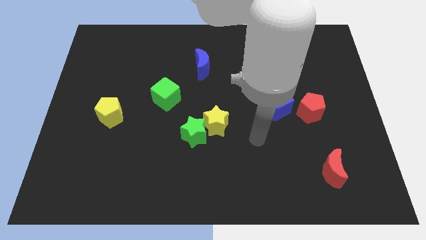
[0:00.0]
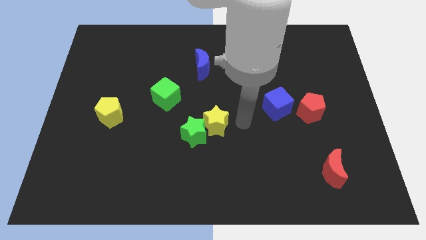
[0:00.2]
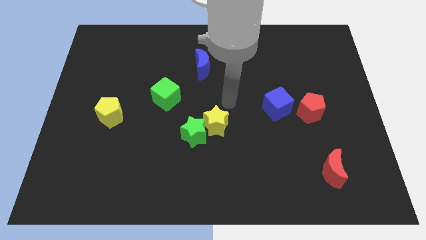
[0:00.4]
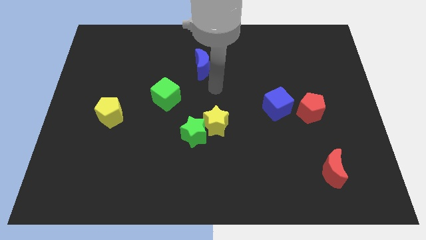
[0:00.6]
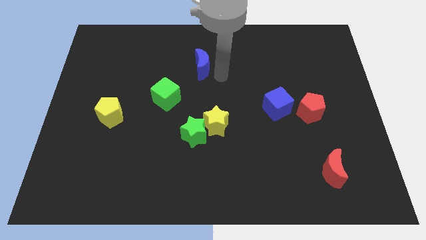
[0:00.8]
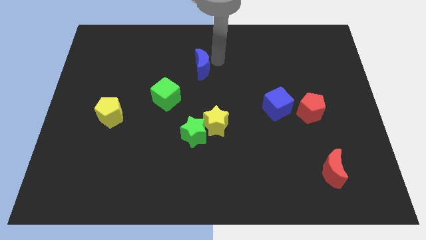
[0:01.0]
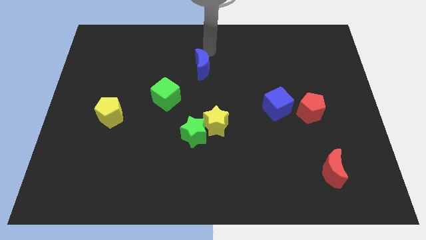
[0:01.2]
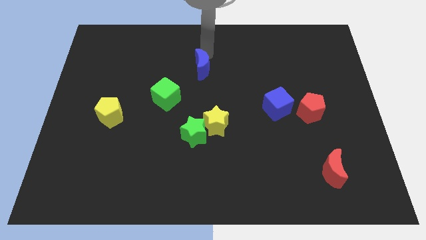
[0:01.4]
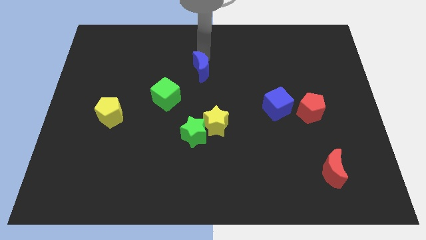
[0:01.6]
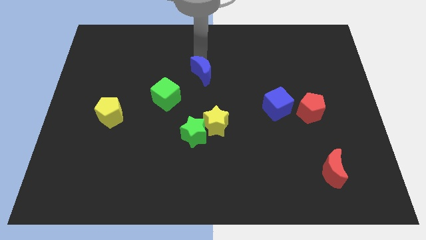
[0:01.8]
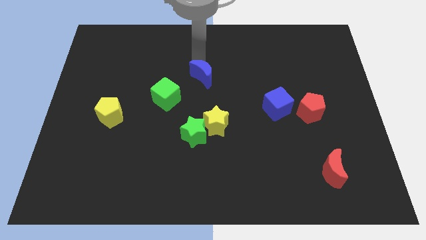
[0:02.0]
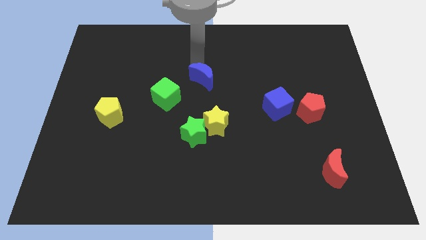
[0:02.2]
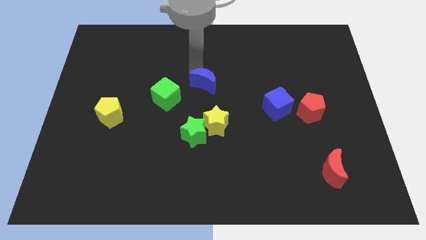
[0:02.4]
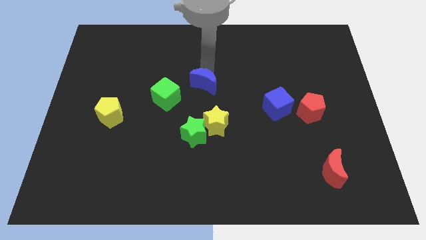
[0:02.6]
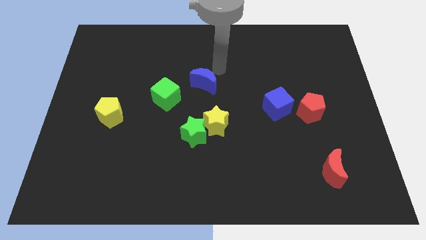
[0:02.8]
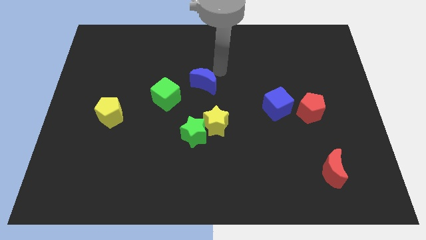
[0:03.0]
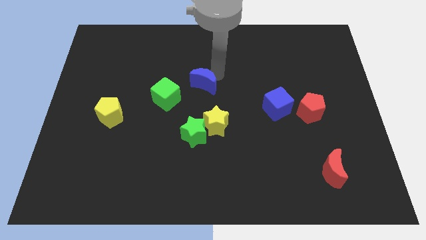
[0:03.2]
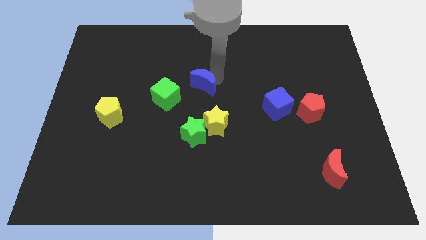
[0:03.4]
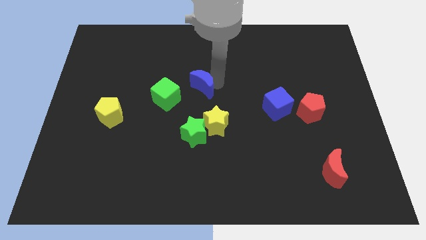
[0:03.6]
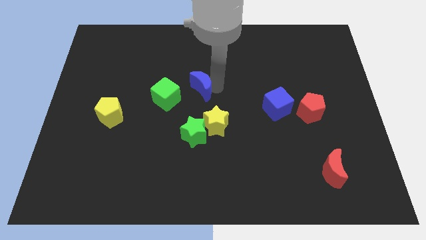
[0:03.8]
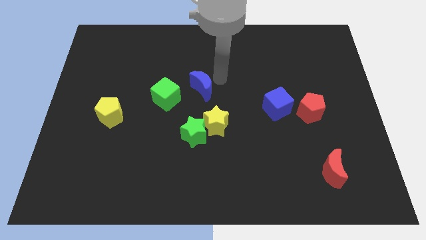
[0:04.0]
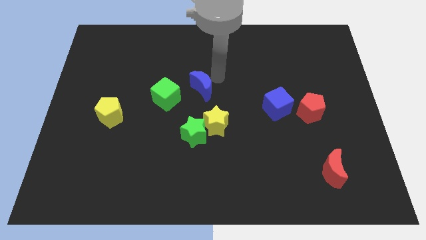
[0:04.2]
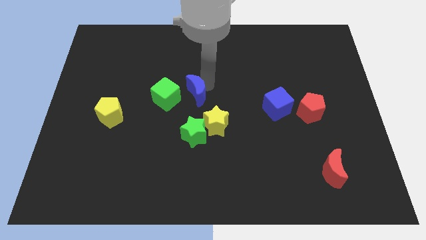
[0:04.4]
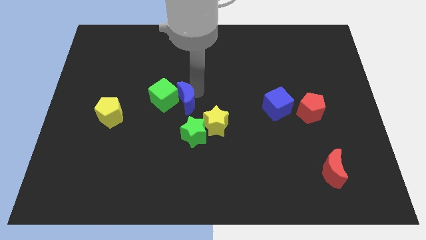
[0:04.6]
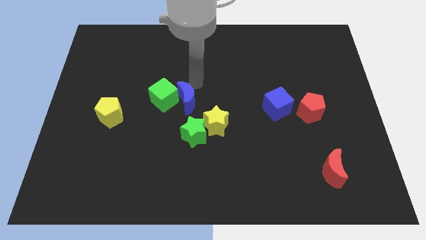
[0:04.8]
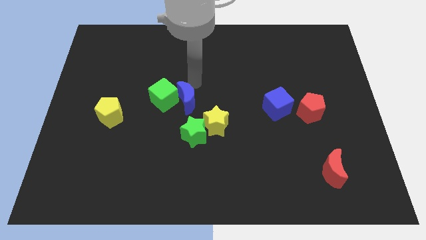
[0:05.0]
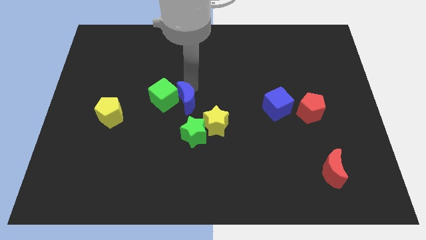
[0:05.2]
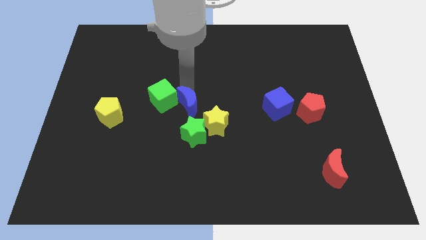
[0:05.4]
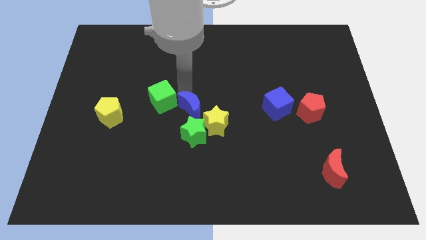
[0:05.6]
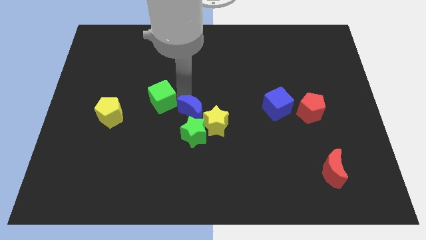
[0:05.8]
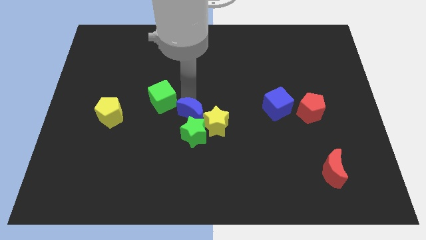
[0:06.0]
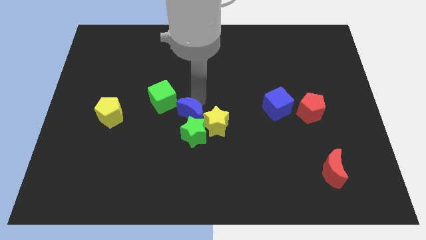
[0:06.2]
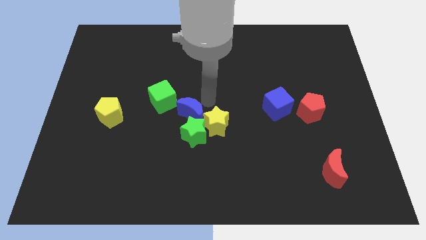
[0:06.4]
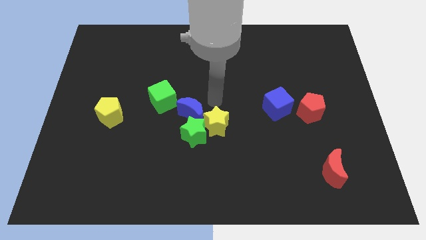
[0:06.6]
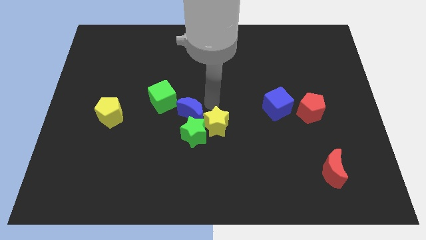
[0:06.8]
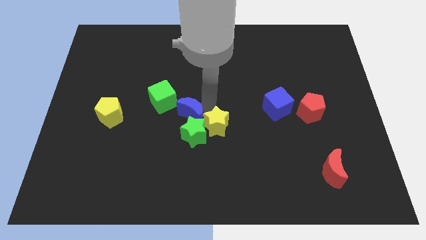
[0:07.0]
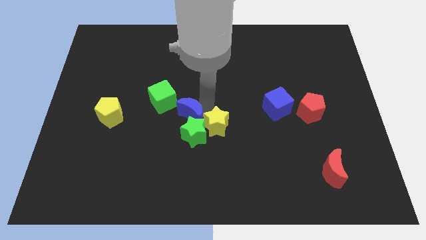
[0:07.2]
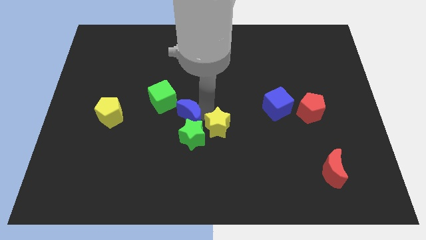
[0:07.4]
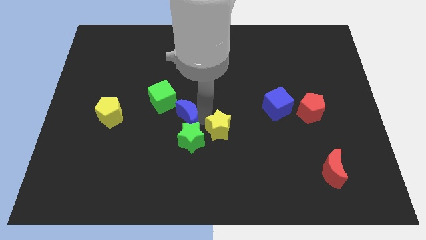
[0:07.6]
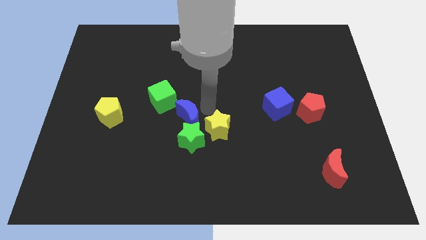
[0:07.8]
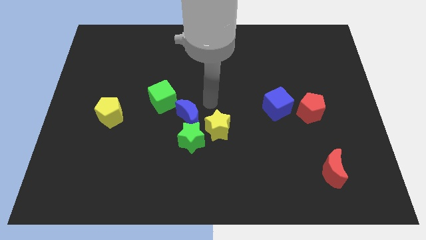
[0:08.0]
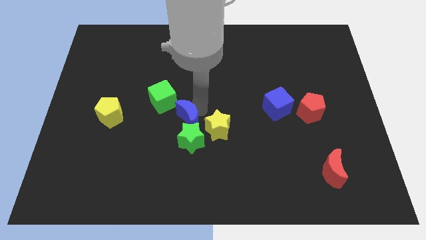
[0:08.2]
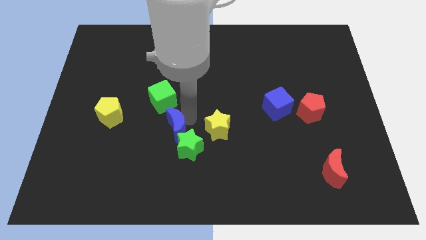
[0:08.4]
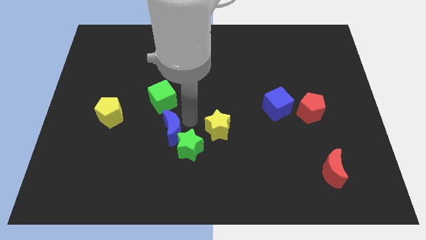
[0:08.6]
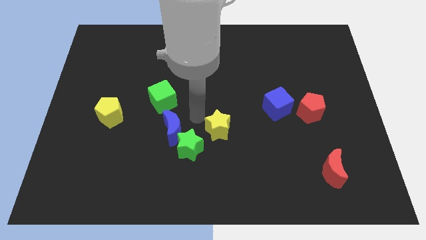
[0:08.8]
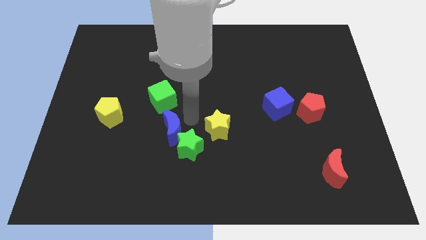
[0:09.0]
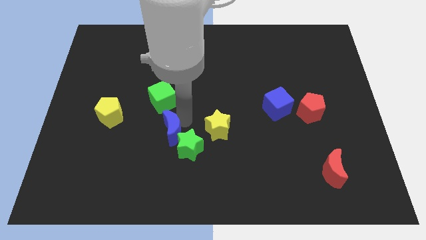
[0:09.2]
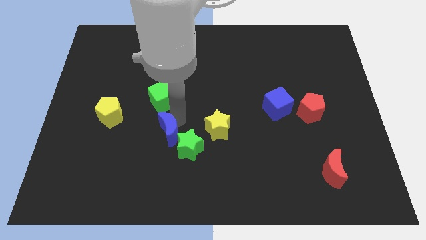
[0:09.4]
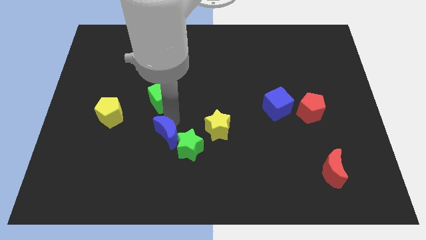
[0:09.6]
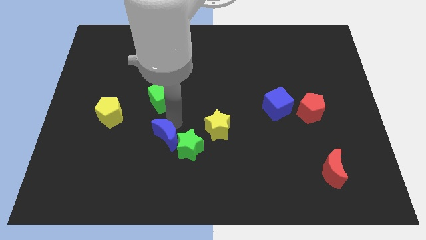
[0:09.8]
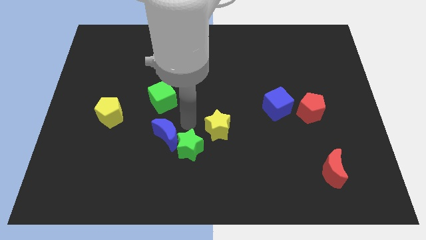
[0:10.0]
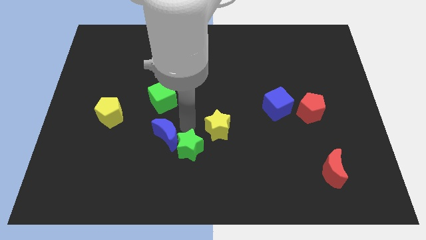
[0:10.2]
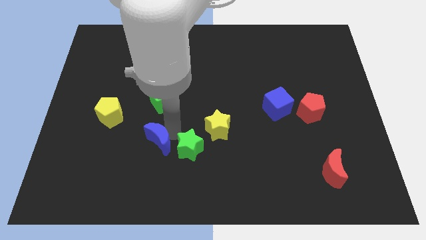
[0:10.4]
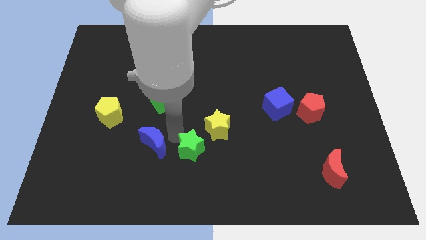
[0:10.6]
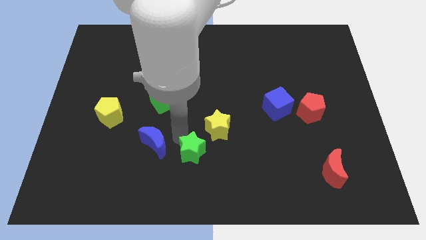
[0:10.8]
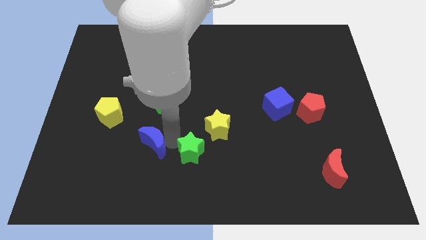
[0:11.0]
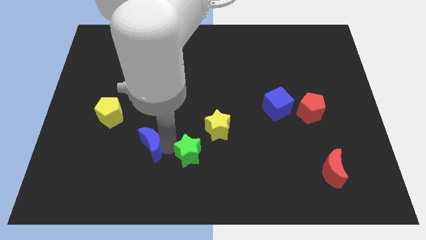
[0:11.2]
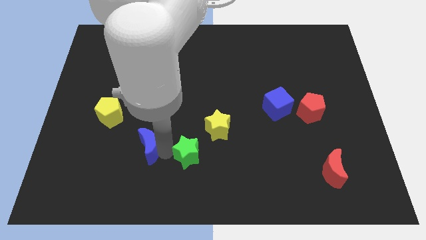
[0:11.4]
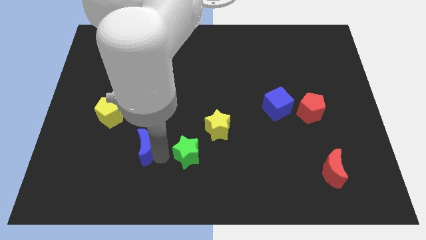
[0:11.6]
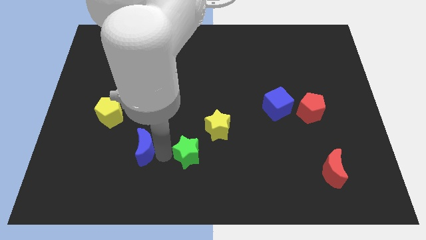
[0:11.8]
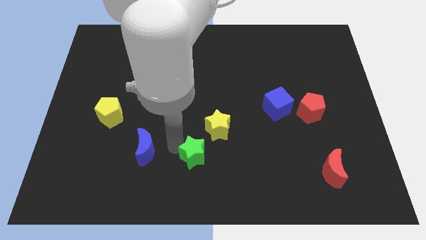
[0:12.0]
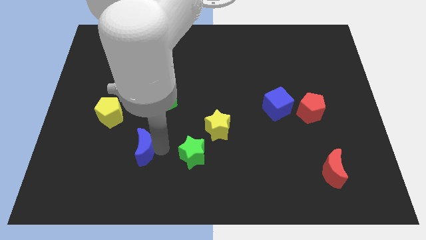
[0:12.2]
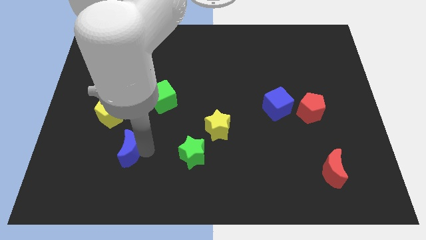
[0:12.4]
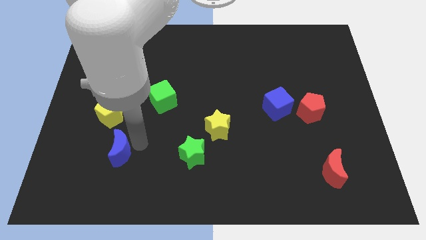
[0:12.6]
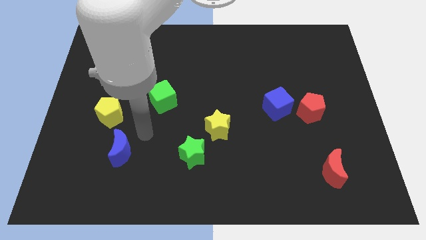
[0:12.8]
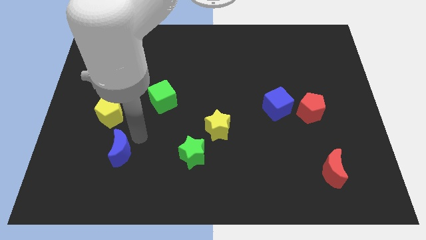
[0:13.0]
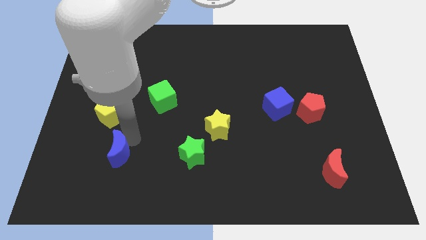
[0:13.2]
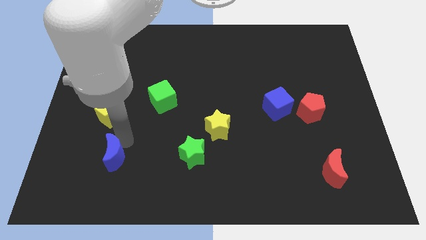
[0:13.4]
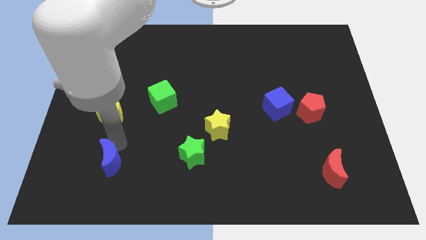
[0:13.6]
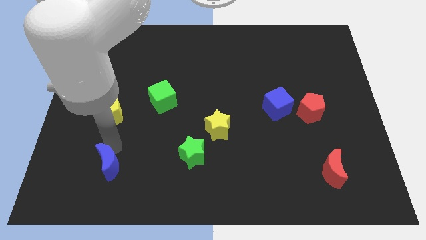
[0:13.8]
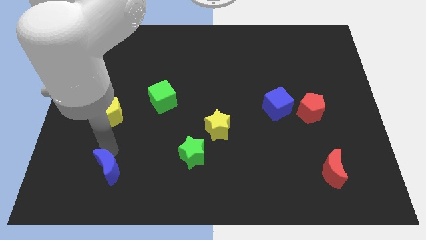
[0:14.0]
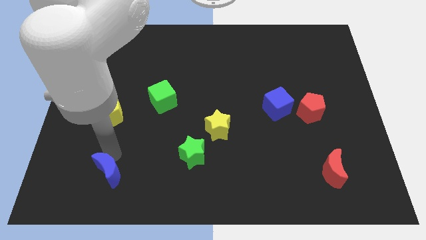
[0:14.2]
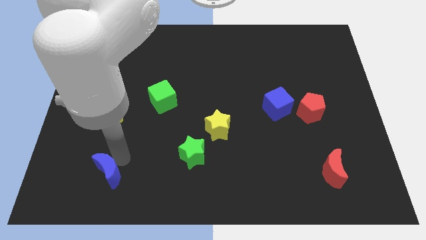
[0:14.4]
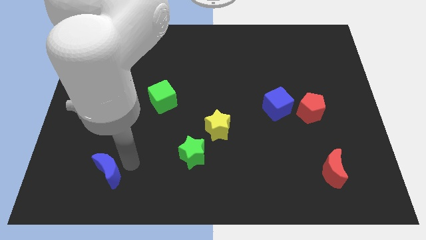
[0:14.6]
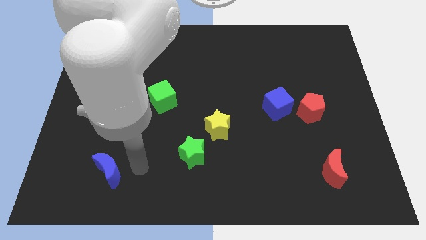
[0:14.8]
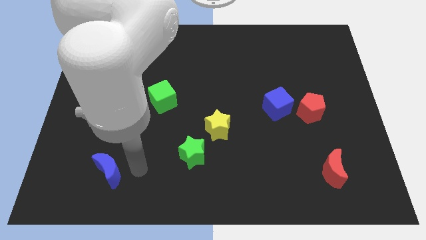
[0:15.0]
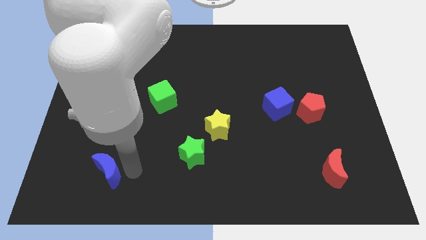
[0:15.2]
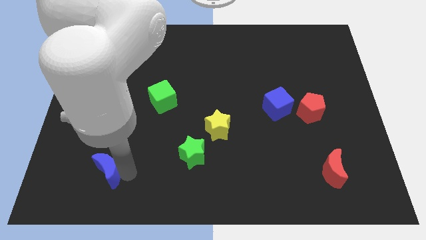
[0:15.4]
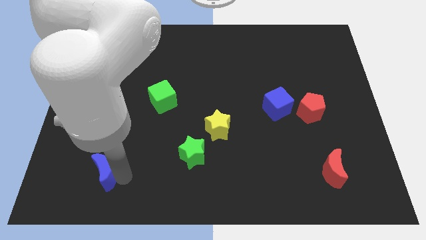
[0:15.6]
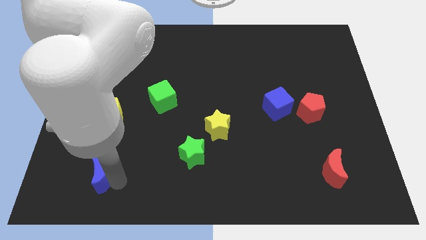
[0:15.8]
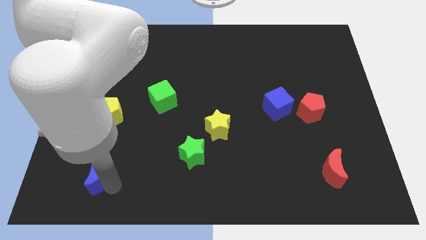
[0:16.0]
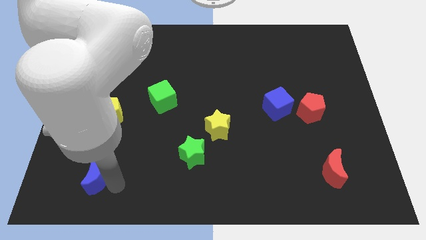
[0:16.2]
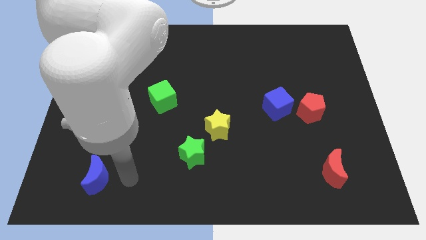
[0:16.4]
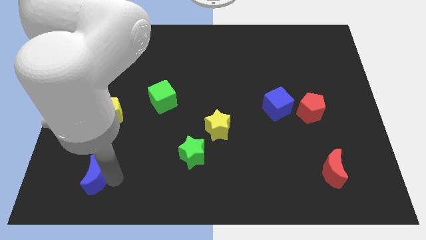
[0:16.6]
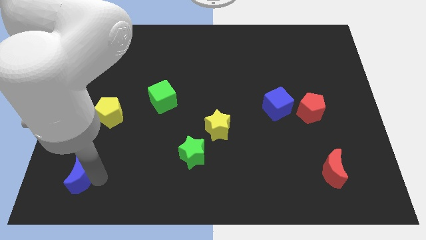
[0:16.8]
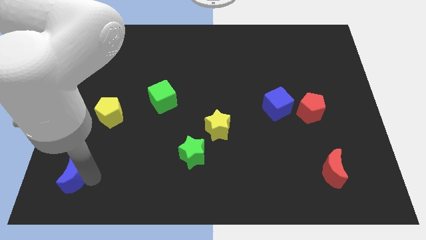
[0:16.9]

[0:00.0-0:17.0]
move the blue moon to the bottom left of the board
